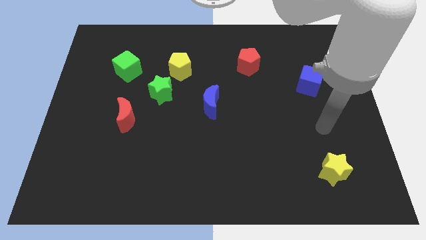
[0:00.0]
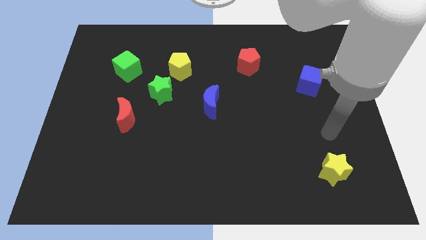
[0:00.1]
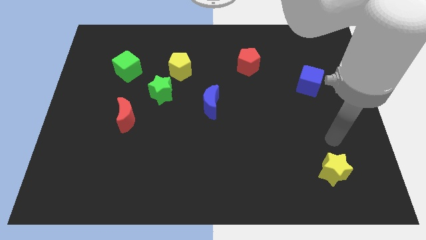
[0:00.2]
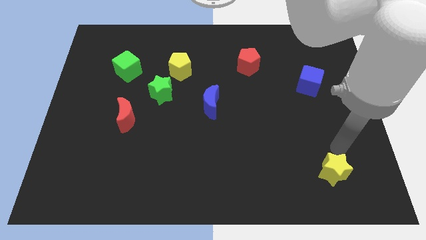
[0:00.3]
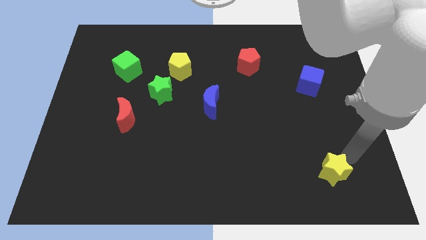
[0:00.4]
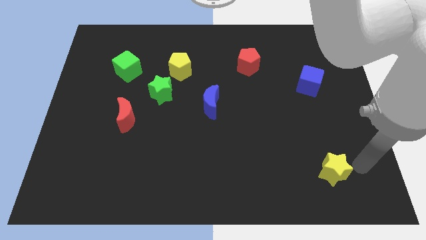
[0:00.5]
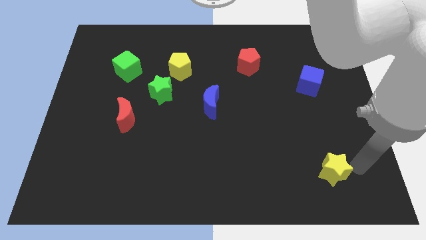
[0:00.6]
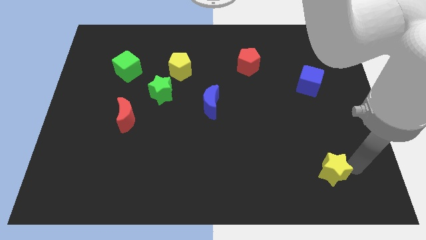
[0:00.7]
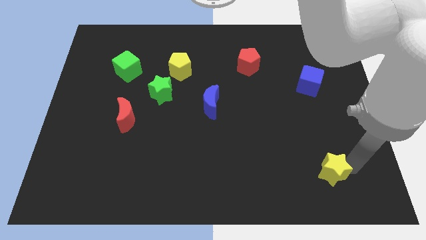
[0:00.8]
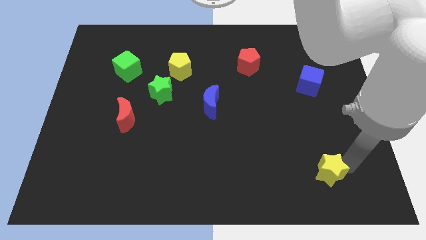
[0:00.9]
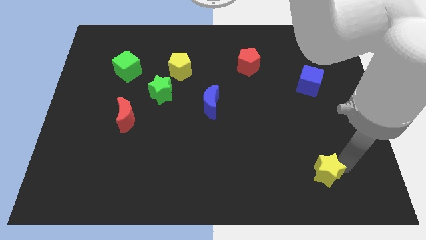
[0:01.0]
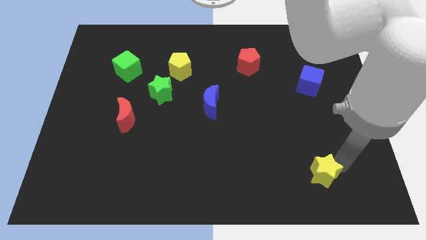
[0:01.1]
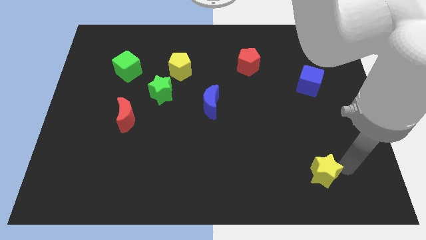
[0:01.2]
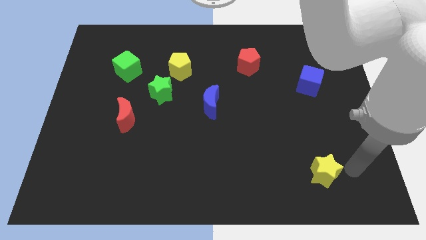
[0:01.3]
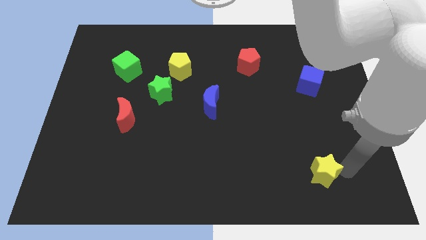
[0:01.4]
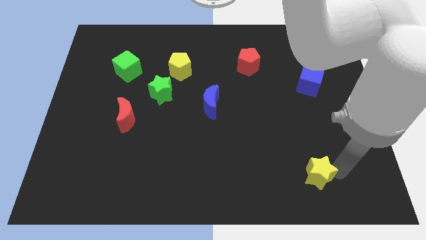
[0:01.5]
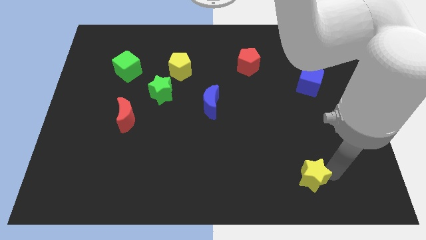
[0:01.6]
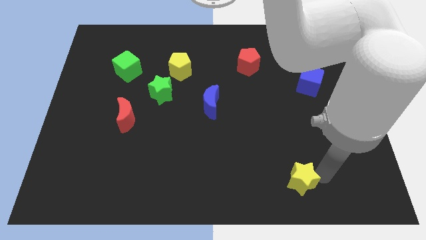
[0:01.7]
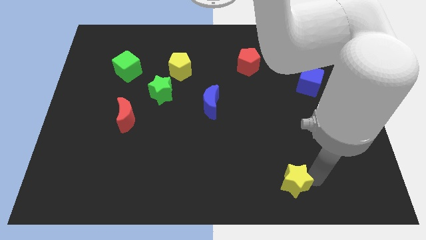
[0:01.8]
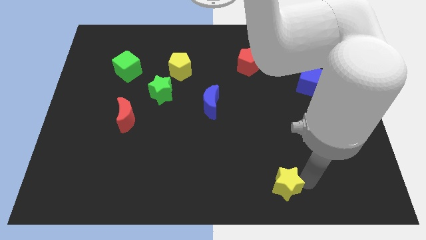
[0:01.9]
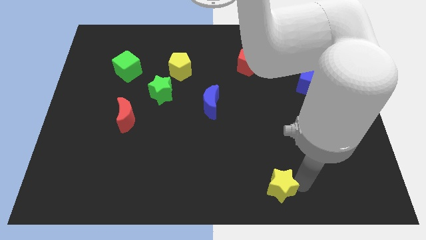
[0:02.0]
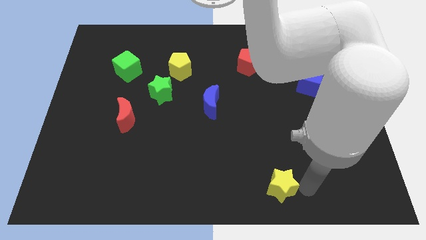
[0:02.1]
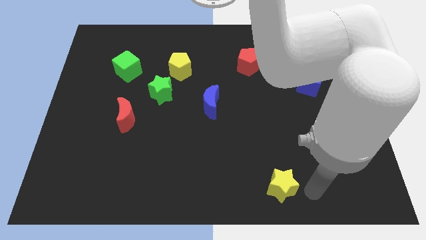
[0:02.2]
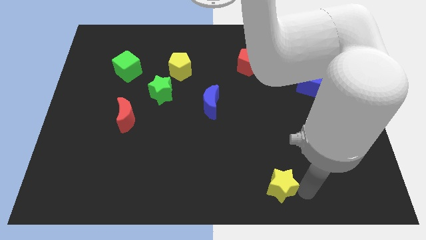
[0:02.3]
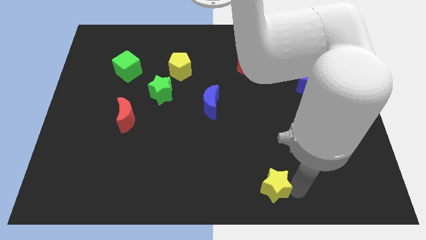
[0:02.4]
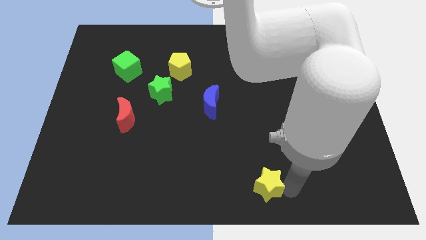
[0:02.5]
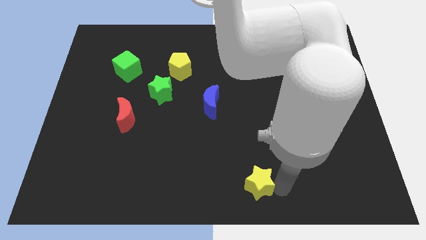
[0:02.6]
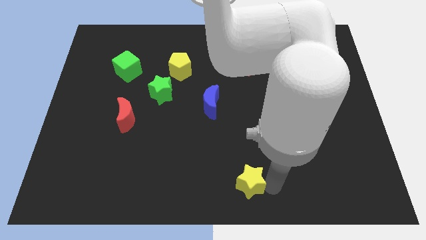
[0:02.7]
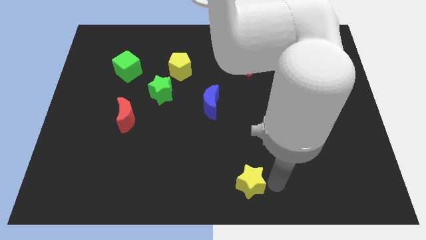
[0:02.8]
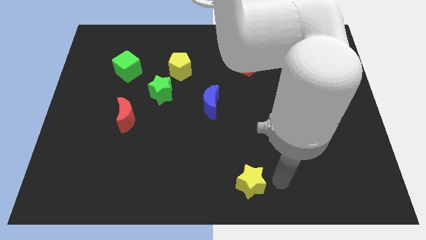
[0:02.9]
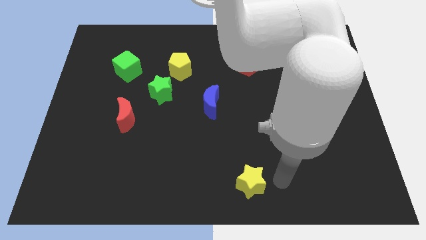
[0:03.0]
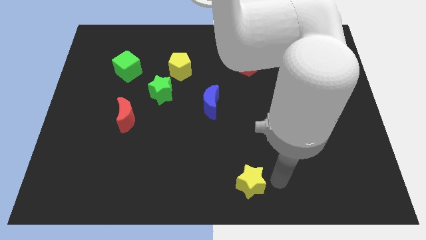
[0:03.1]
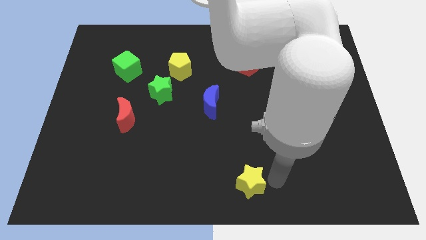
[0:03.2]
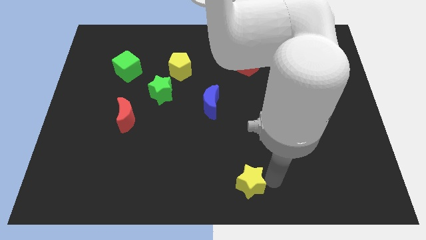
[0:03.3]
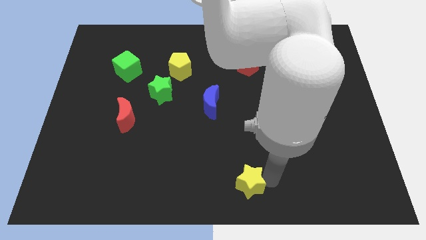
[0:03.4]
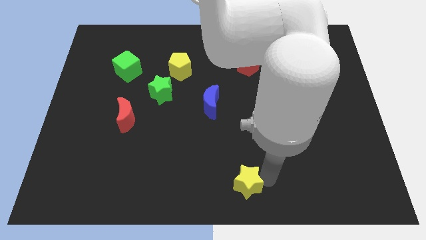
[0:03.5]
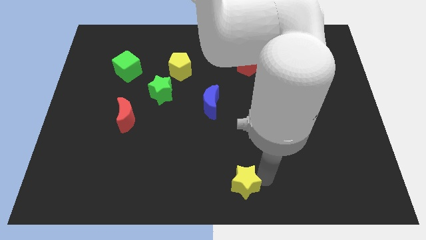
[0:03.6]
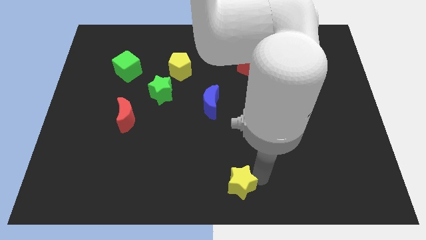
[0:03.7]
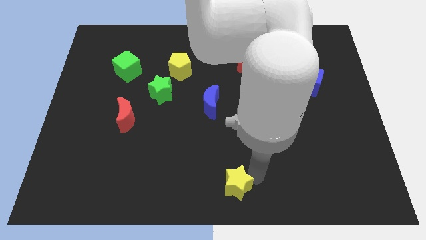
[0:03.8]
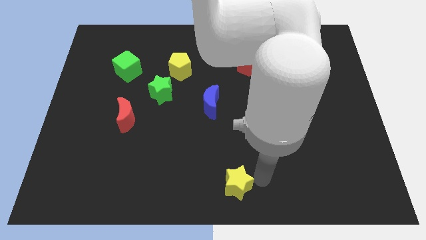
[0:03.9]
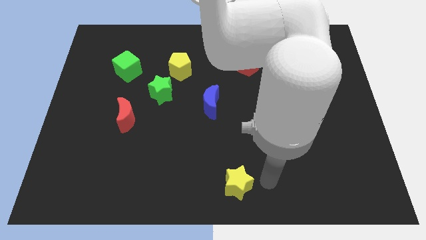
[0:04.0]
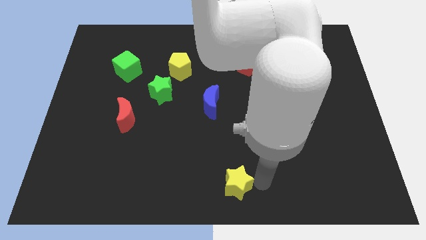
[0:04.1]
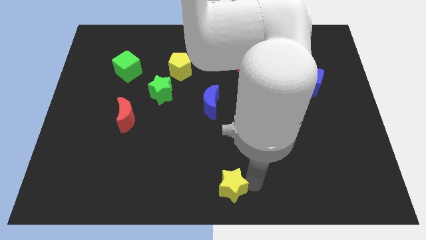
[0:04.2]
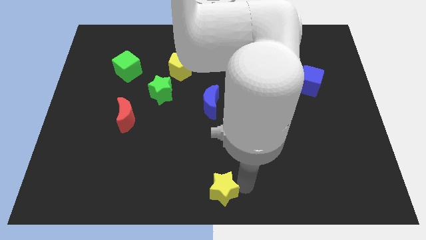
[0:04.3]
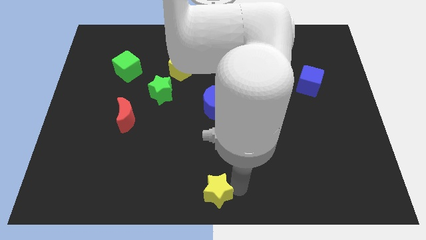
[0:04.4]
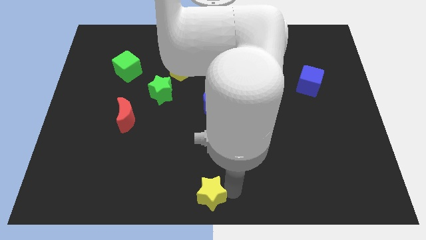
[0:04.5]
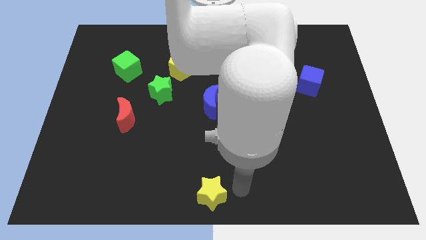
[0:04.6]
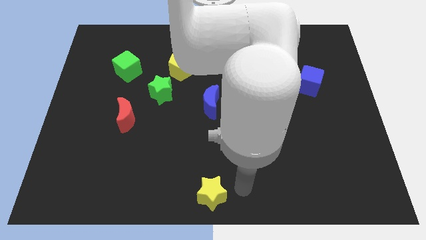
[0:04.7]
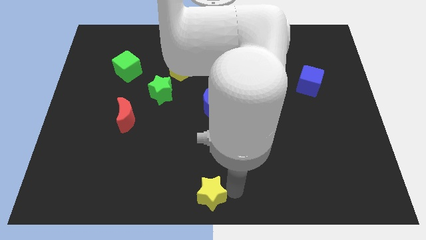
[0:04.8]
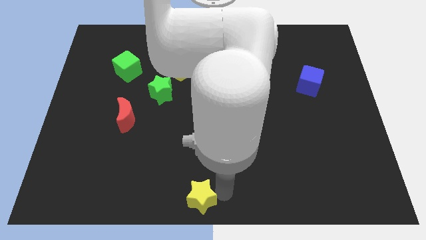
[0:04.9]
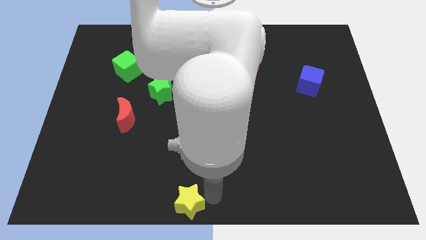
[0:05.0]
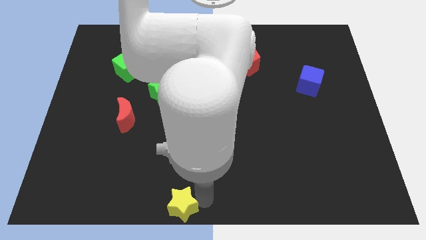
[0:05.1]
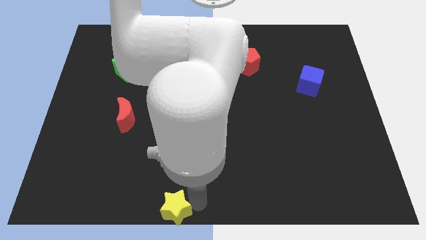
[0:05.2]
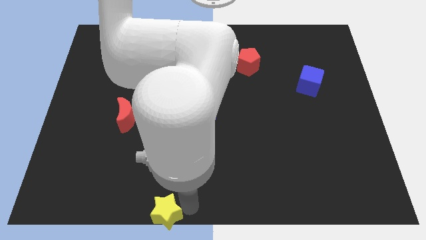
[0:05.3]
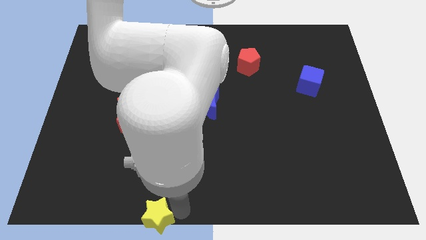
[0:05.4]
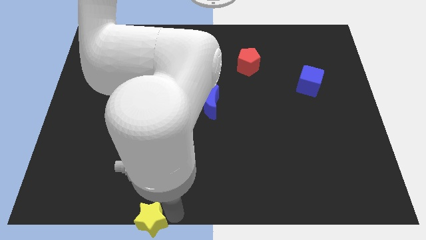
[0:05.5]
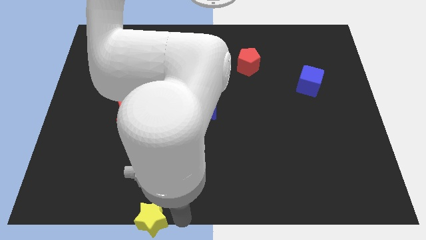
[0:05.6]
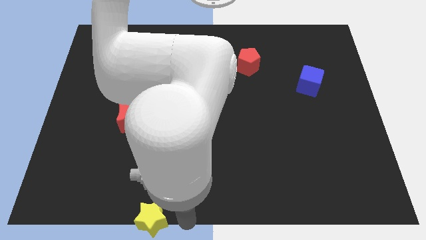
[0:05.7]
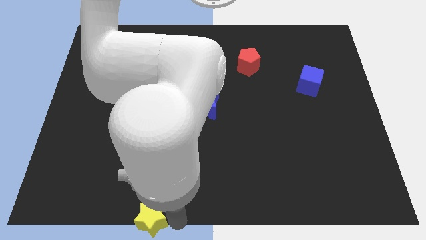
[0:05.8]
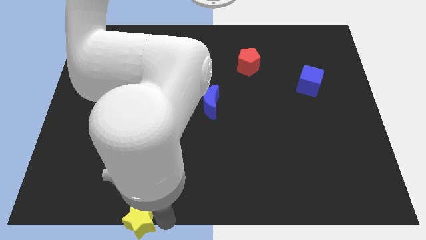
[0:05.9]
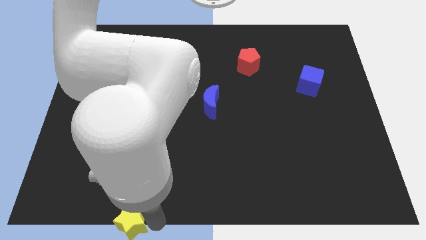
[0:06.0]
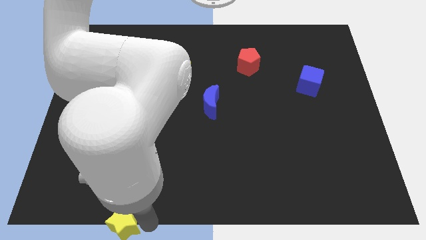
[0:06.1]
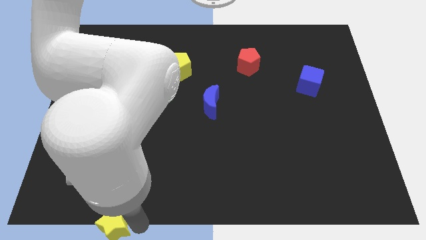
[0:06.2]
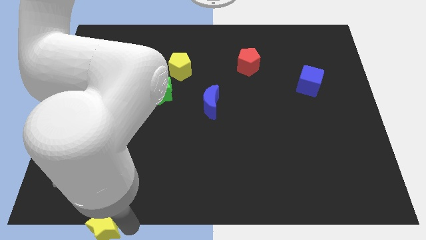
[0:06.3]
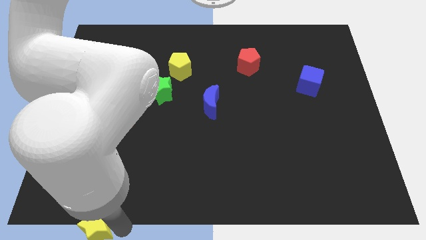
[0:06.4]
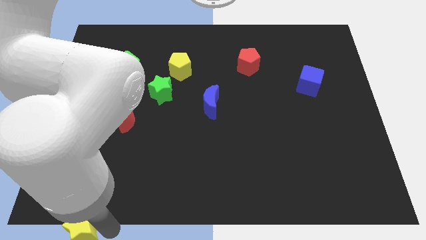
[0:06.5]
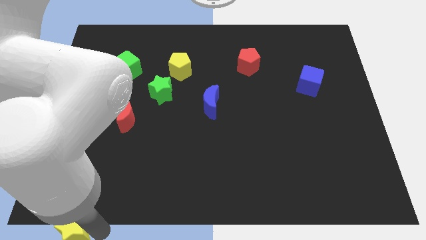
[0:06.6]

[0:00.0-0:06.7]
put the yellow star to the bottom left of the board
